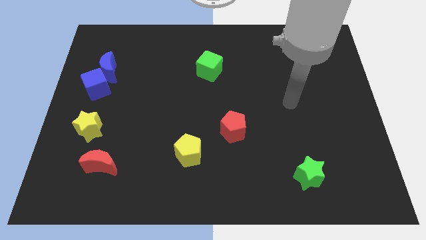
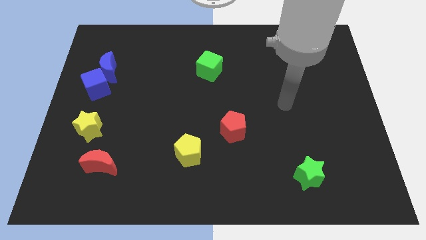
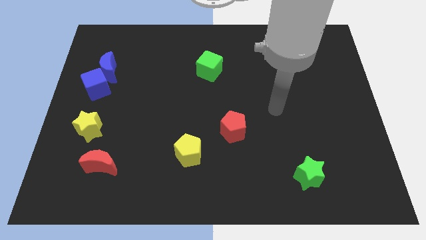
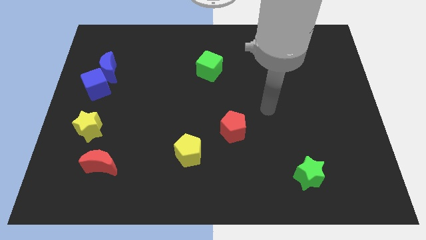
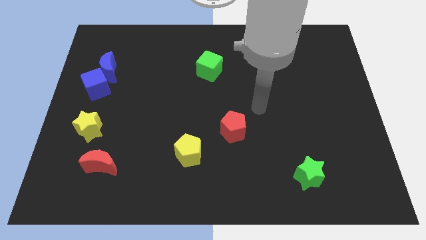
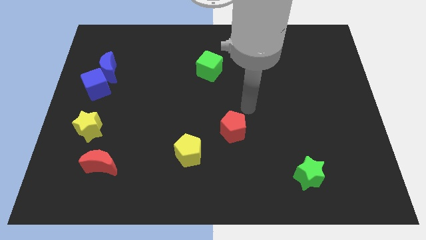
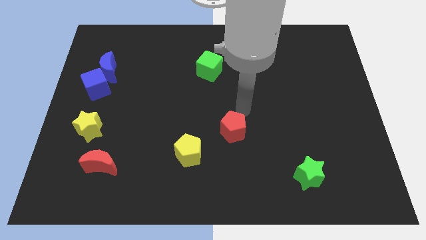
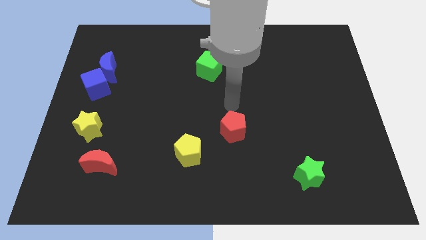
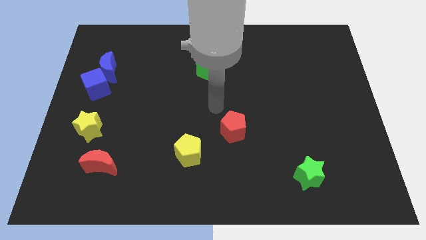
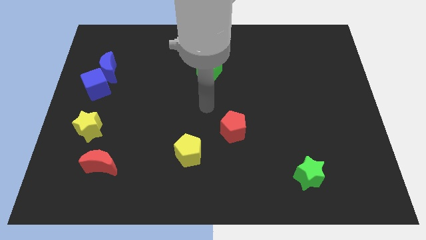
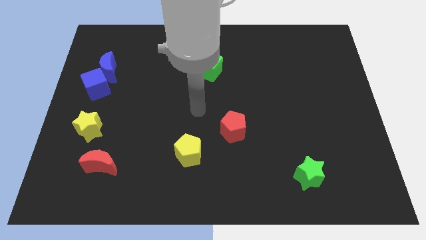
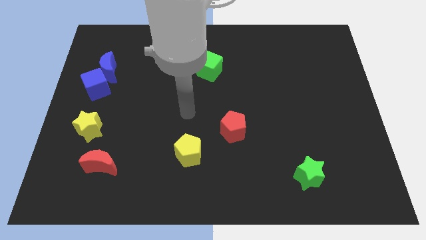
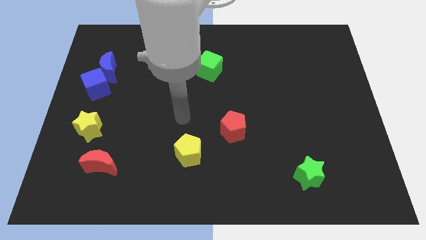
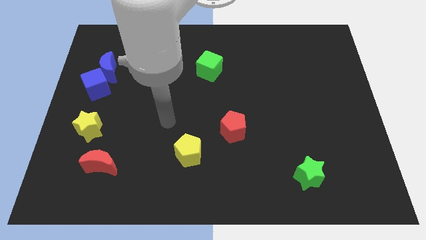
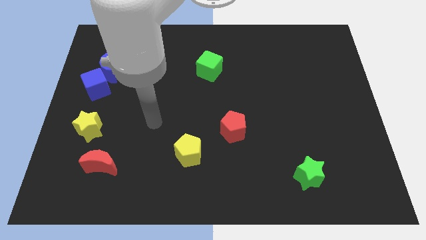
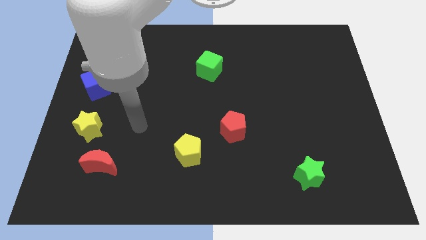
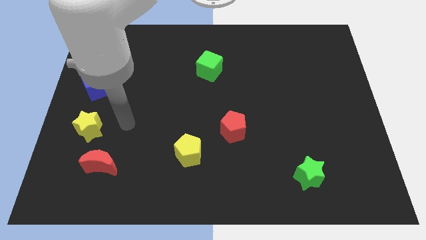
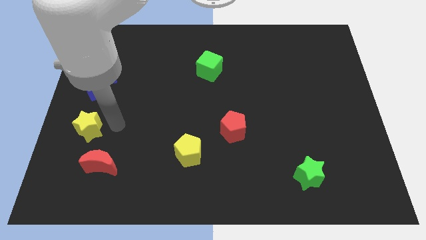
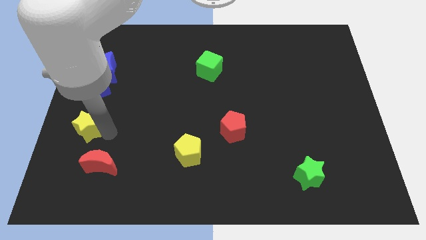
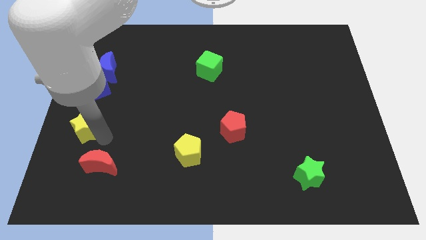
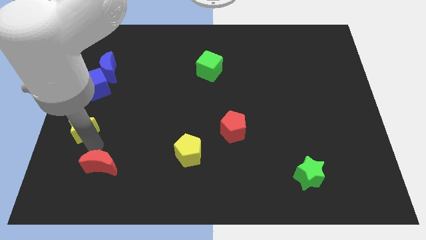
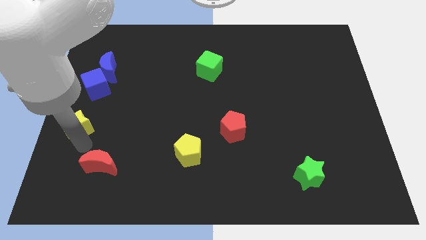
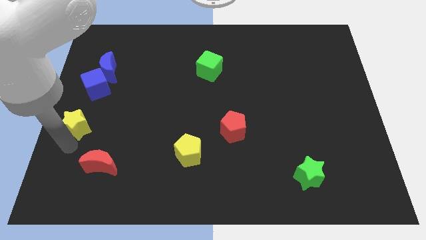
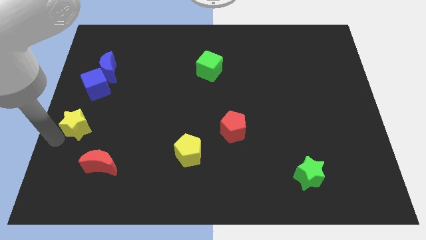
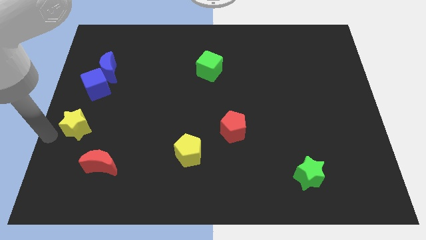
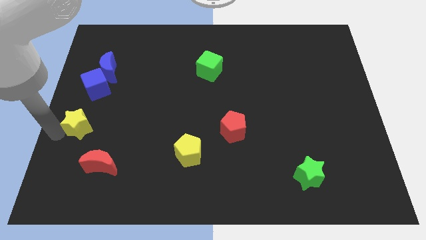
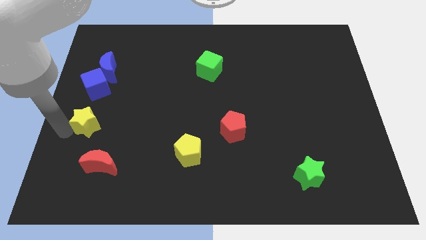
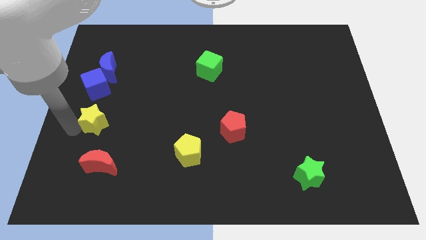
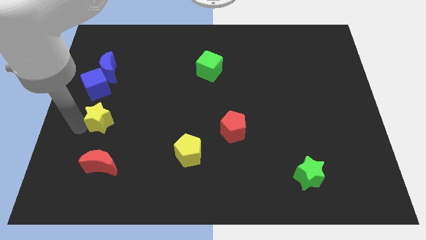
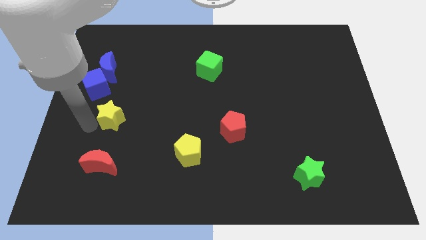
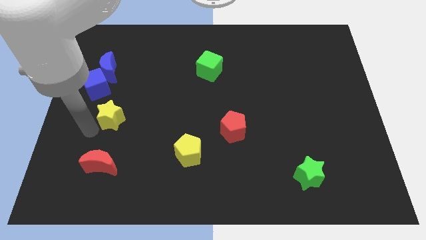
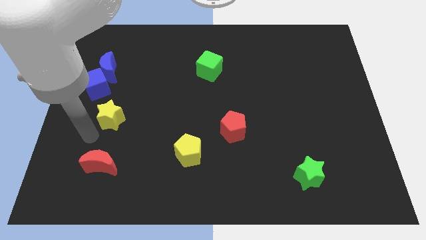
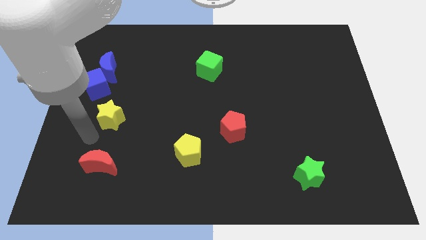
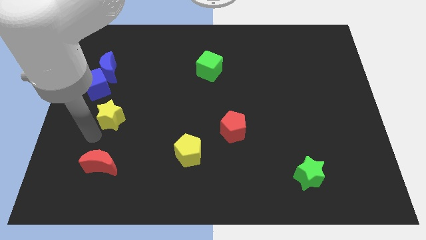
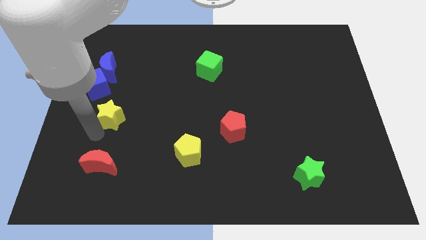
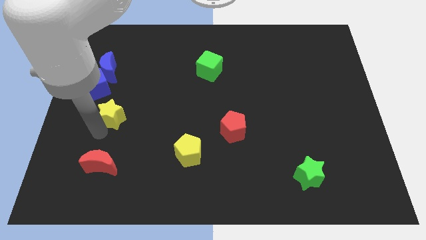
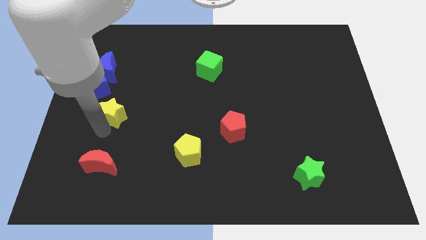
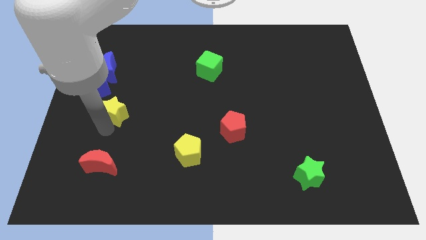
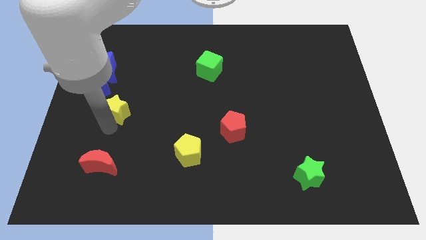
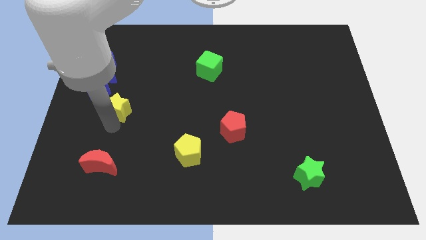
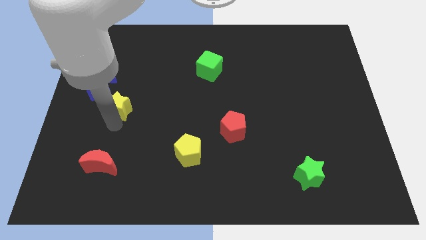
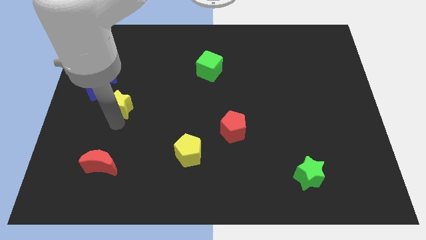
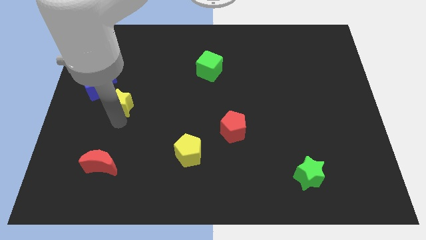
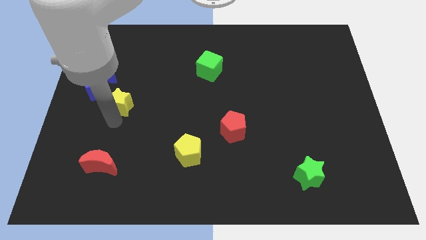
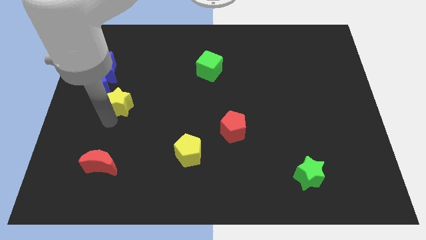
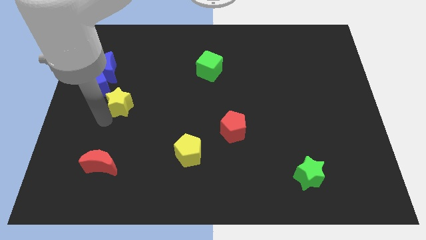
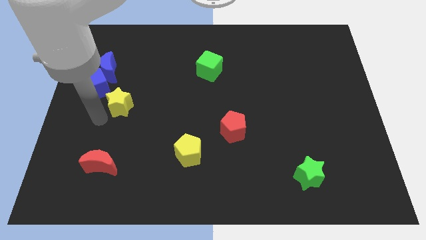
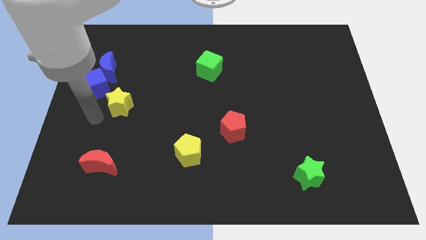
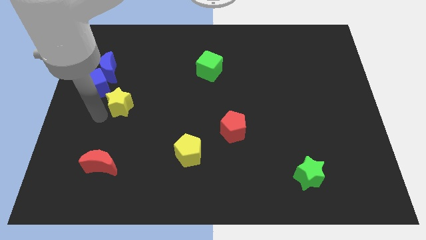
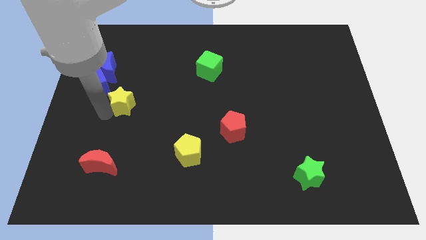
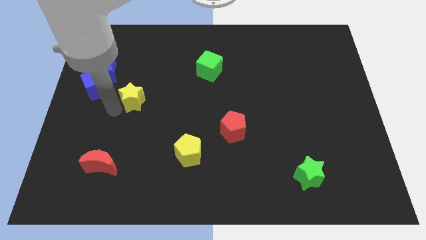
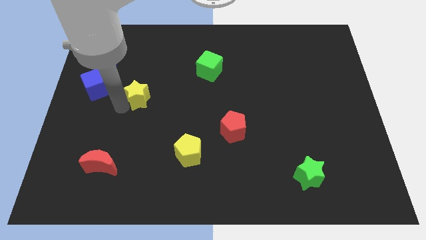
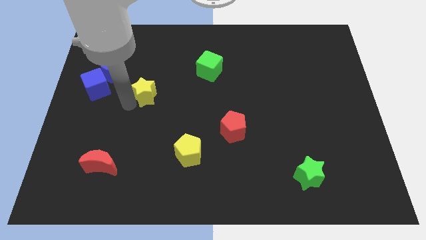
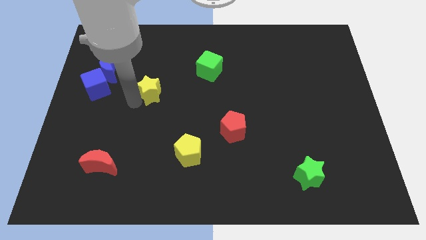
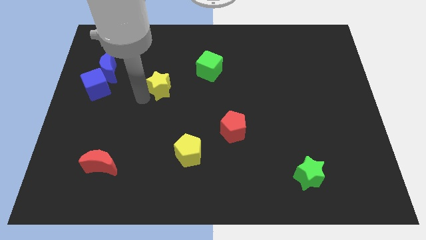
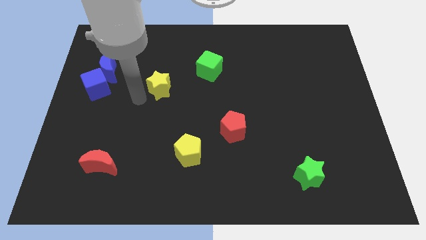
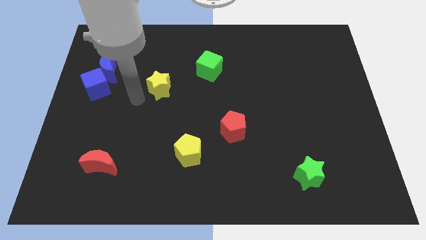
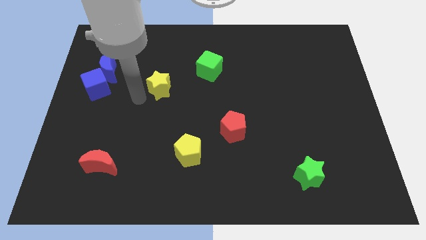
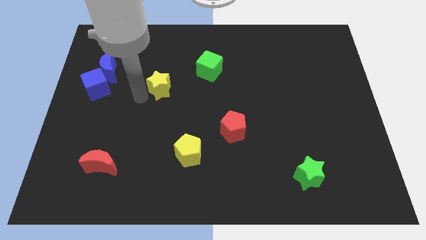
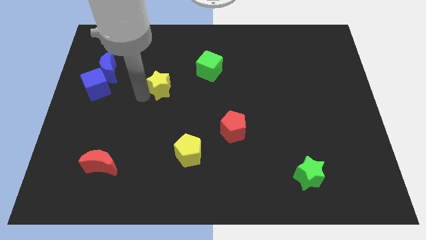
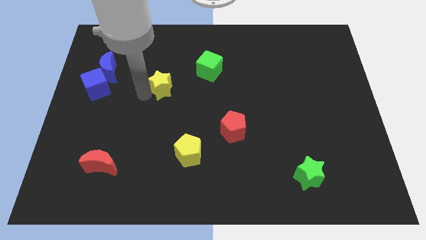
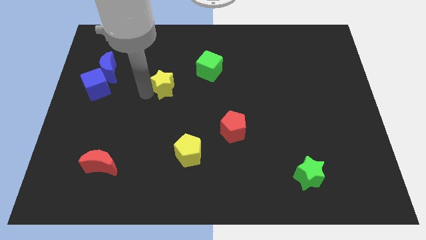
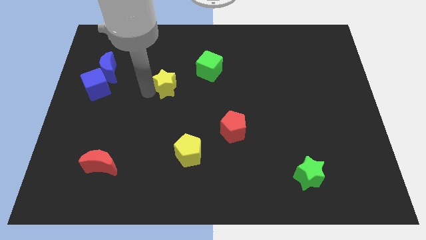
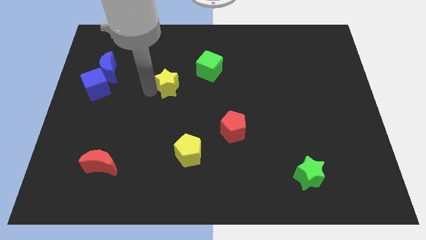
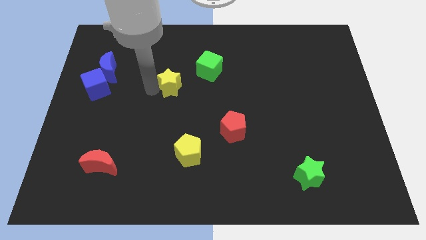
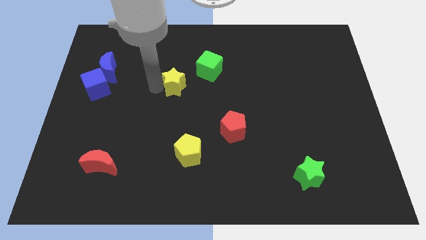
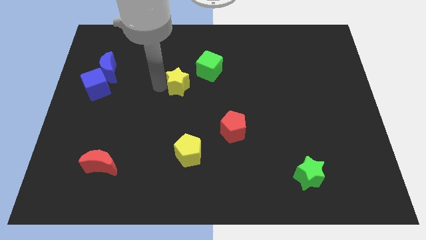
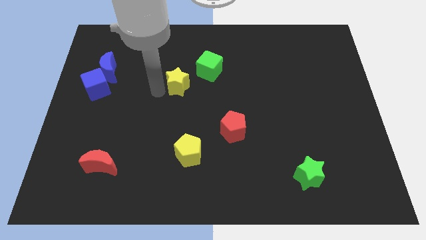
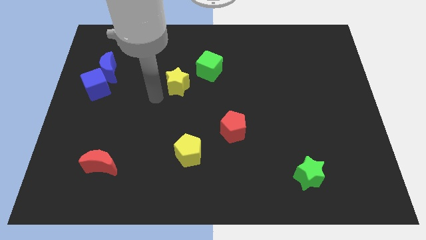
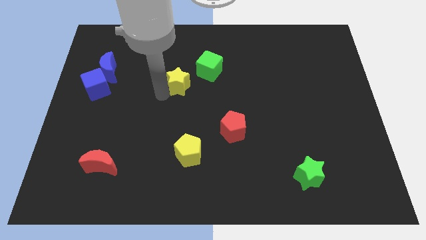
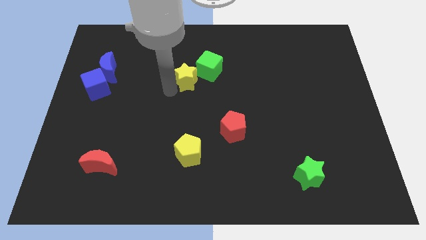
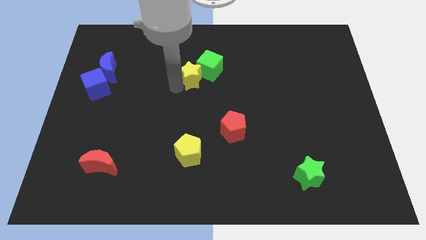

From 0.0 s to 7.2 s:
push the yellow star next to the green cube
